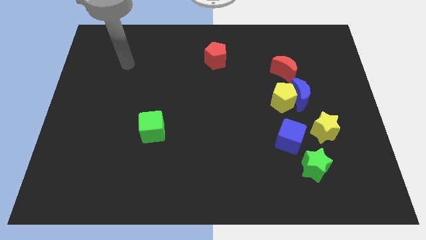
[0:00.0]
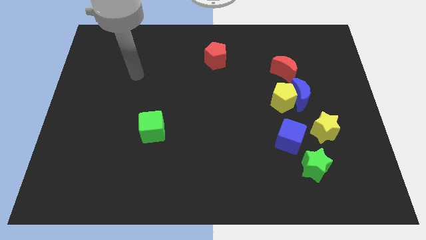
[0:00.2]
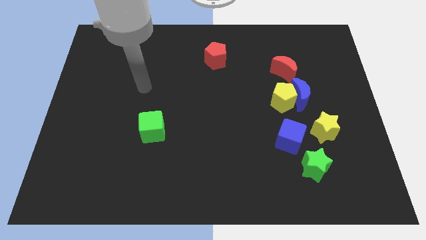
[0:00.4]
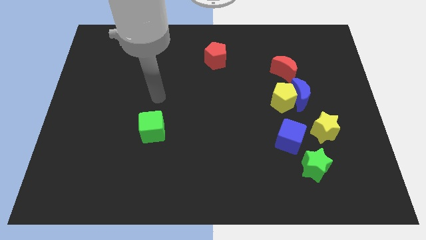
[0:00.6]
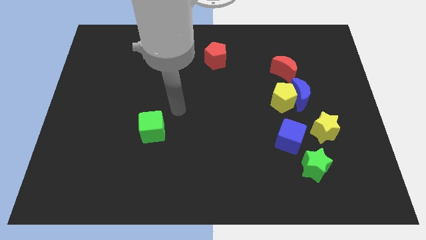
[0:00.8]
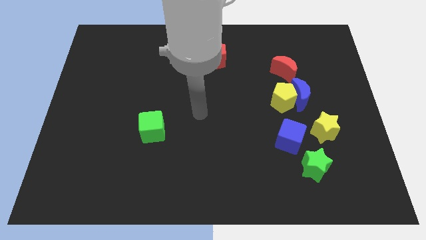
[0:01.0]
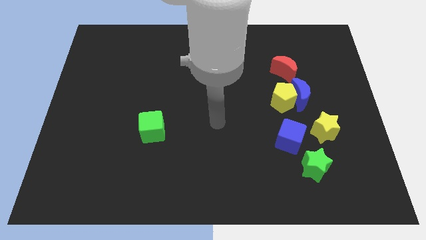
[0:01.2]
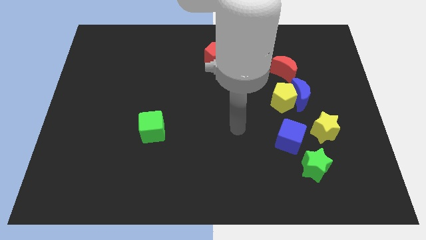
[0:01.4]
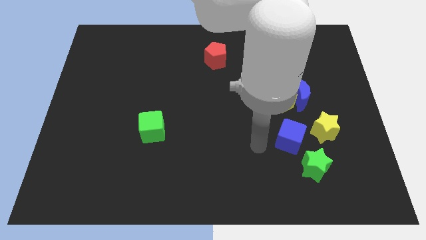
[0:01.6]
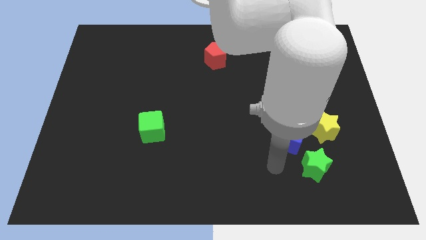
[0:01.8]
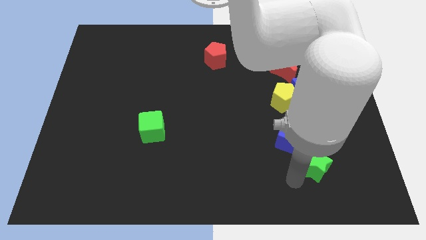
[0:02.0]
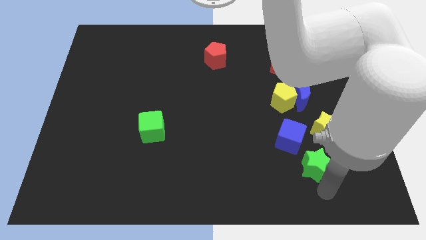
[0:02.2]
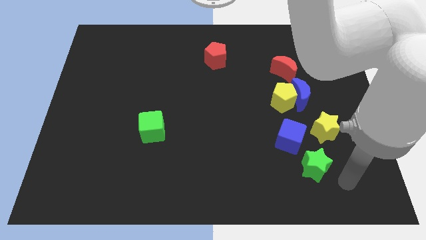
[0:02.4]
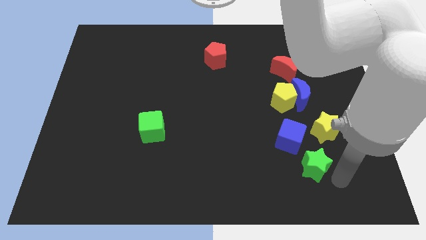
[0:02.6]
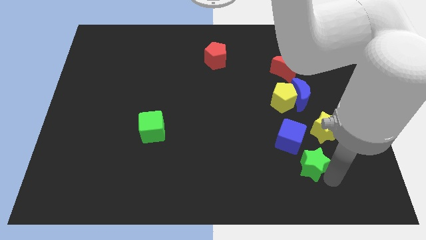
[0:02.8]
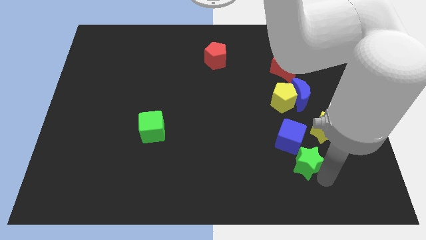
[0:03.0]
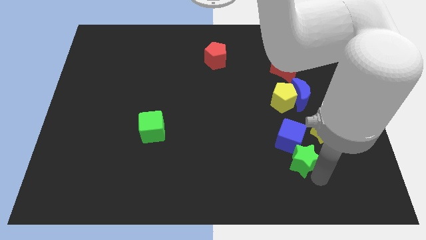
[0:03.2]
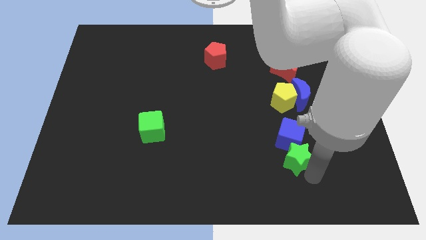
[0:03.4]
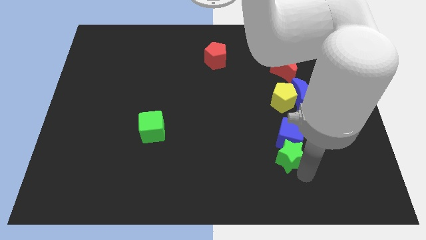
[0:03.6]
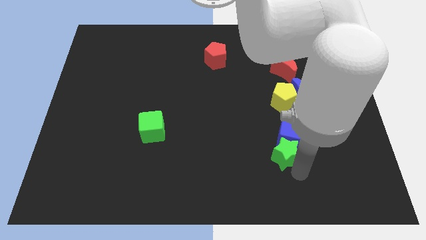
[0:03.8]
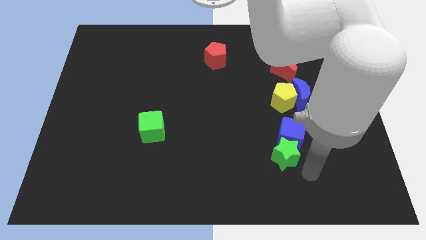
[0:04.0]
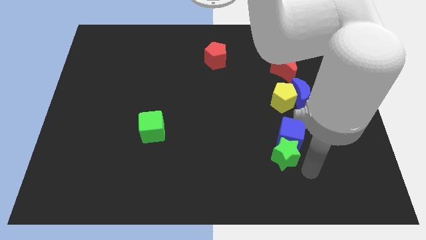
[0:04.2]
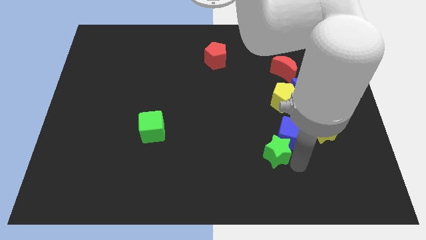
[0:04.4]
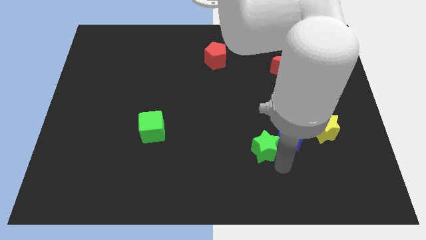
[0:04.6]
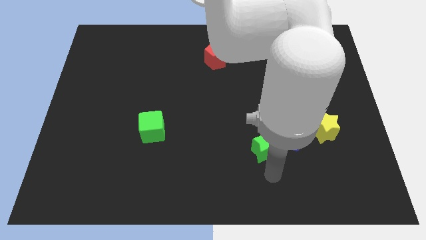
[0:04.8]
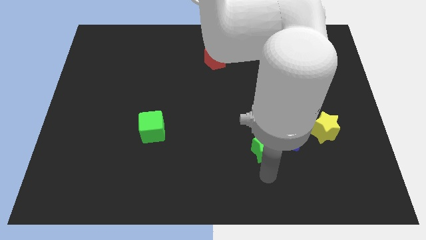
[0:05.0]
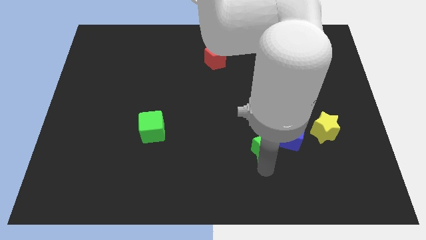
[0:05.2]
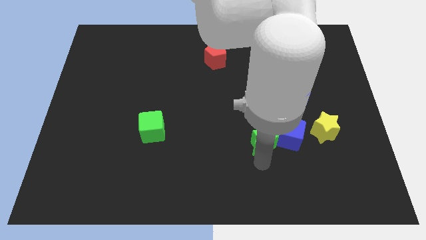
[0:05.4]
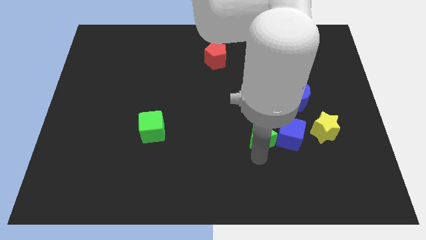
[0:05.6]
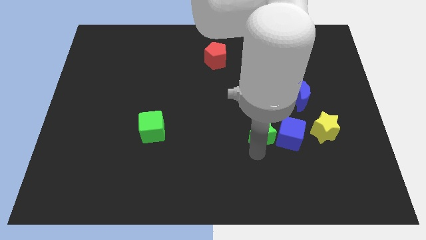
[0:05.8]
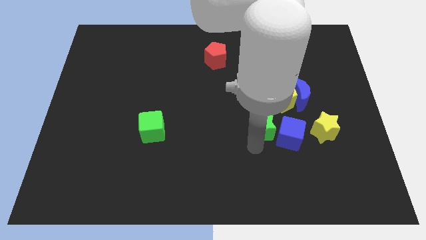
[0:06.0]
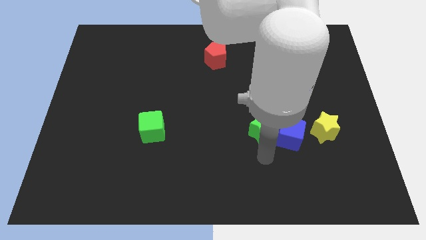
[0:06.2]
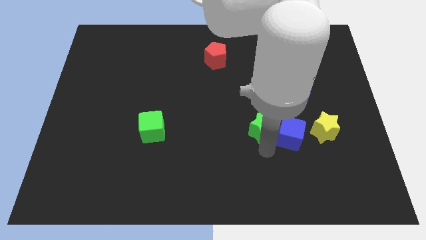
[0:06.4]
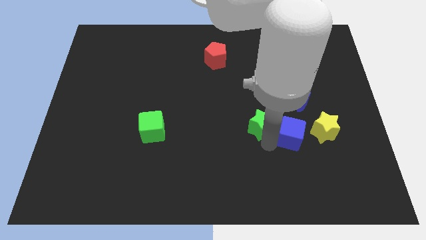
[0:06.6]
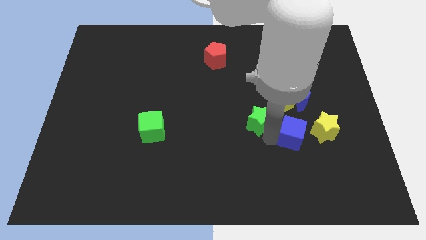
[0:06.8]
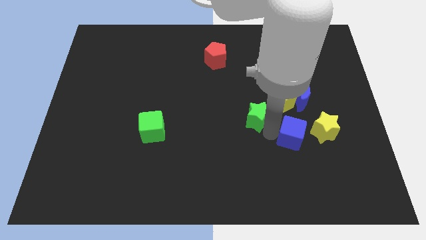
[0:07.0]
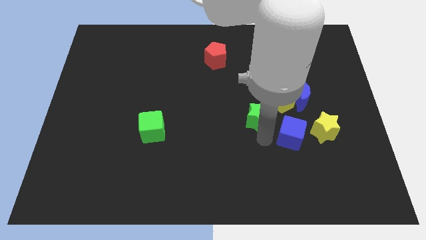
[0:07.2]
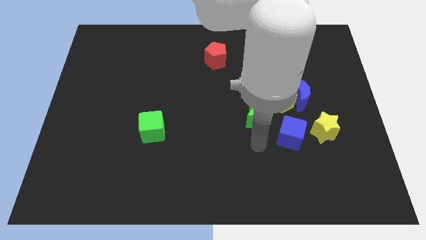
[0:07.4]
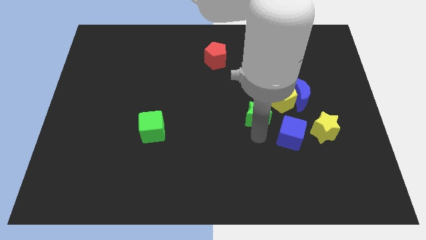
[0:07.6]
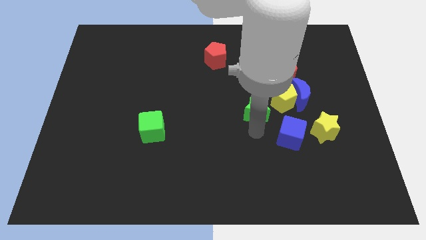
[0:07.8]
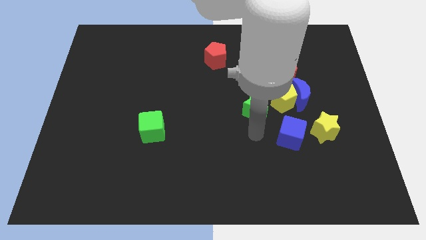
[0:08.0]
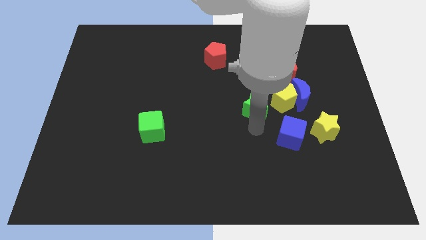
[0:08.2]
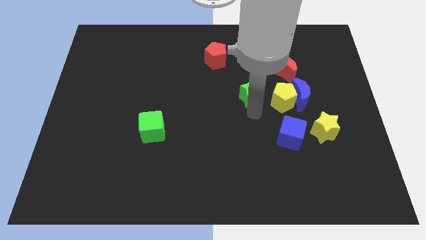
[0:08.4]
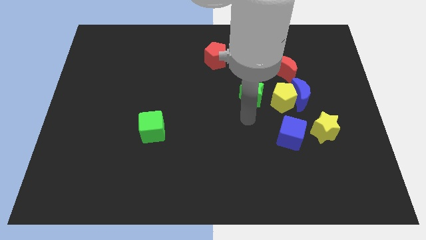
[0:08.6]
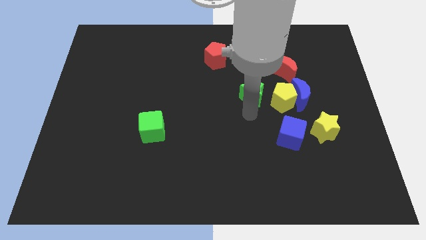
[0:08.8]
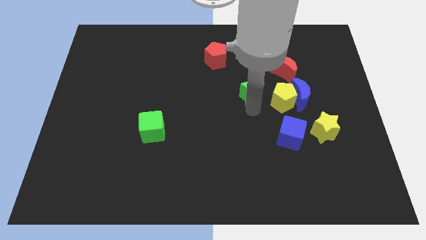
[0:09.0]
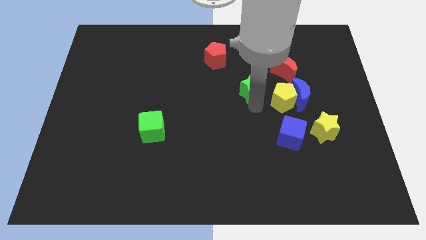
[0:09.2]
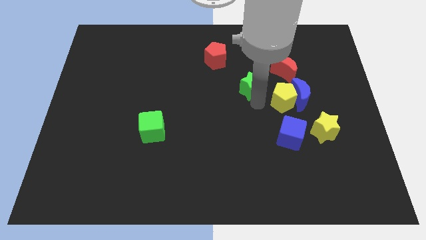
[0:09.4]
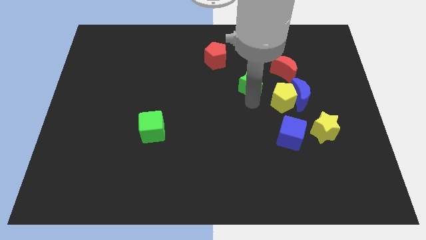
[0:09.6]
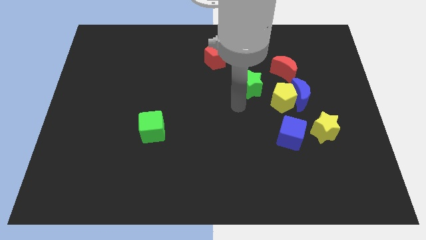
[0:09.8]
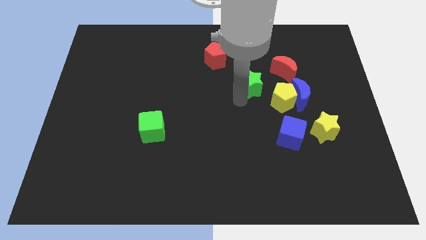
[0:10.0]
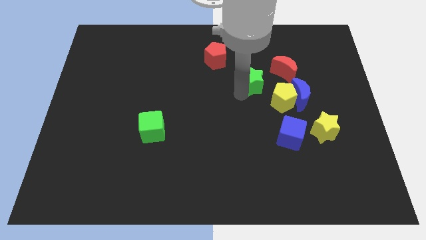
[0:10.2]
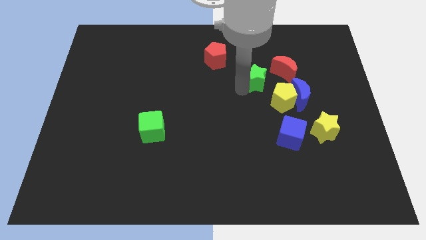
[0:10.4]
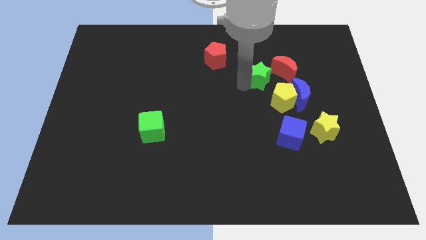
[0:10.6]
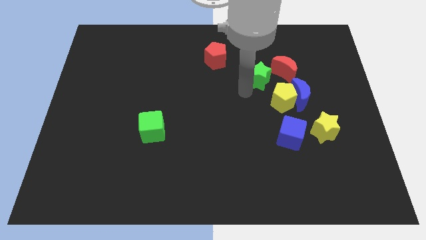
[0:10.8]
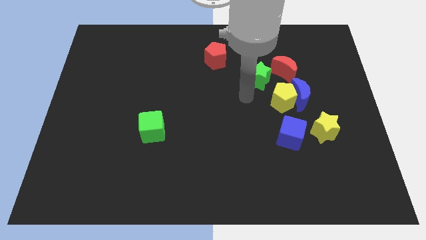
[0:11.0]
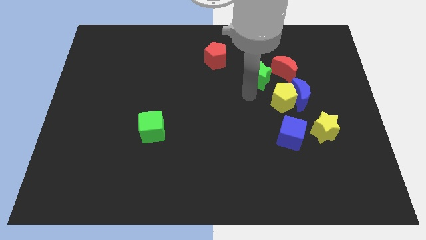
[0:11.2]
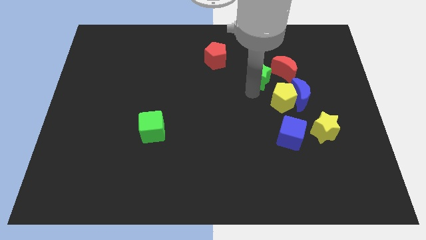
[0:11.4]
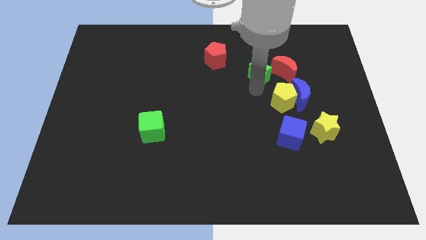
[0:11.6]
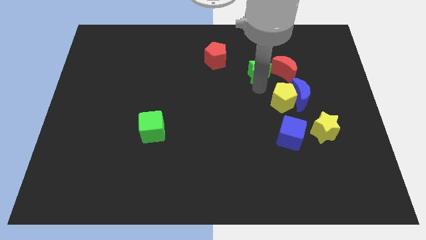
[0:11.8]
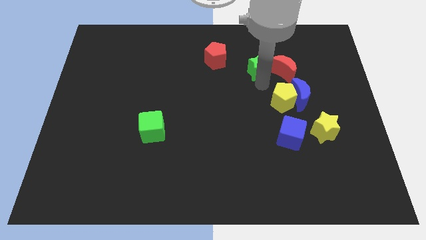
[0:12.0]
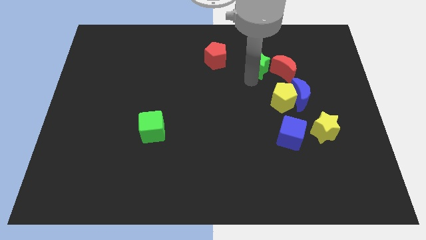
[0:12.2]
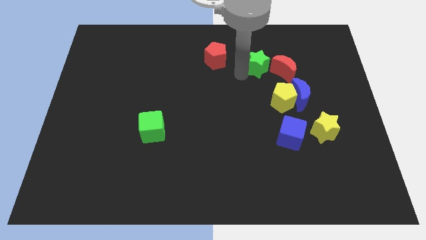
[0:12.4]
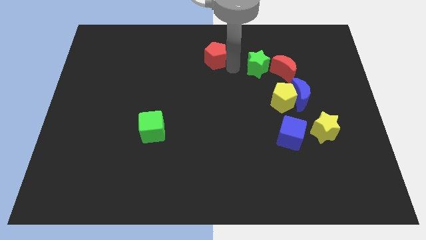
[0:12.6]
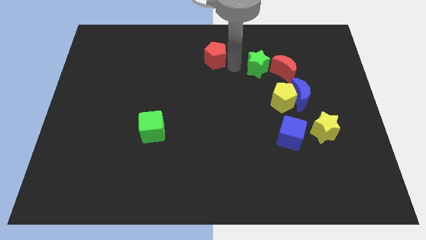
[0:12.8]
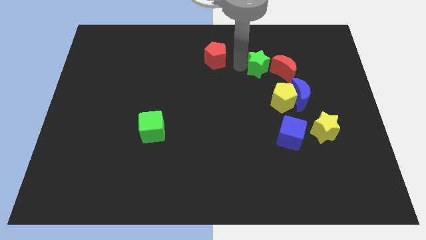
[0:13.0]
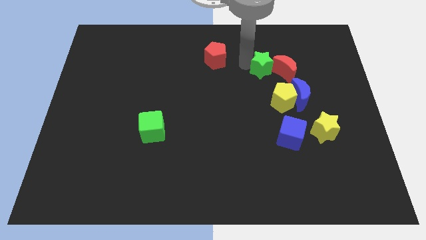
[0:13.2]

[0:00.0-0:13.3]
move the green star above the yellow pentagon

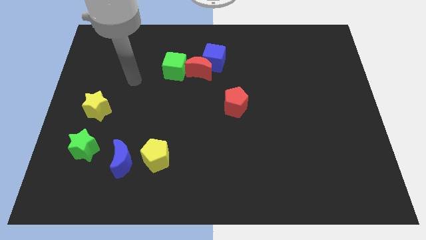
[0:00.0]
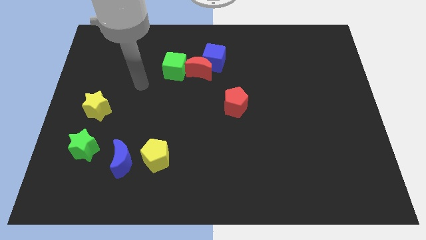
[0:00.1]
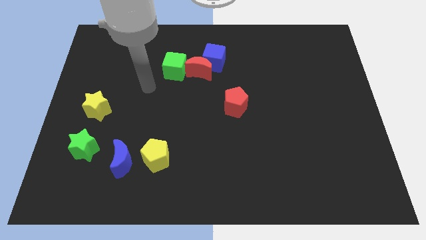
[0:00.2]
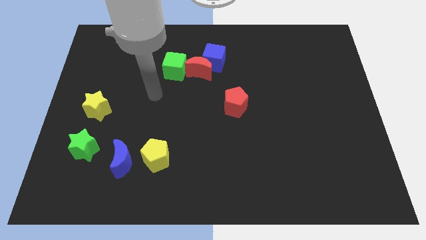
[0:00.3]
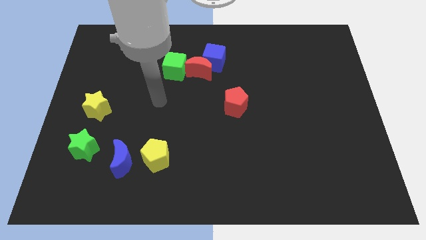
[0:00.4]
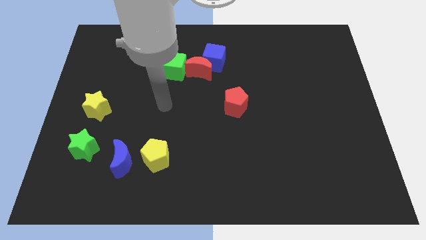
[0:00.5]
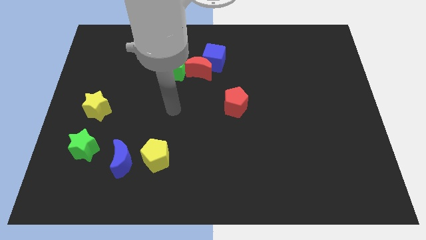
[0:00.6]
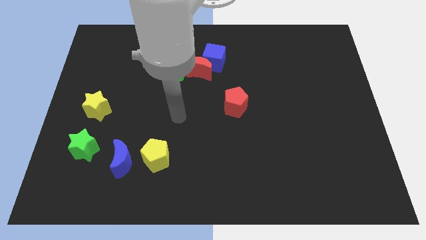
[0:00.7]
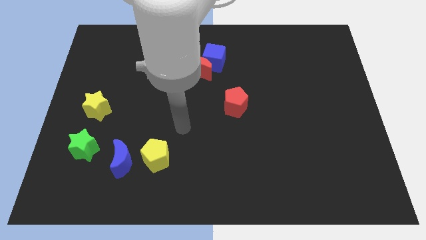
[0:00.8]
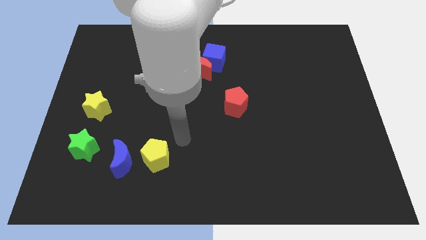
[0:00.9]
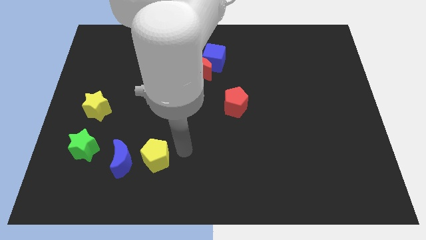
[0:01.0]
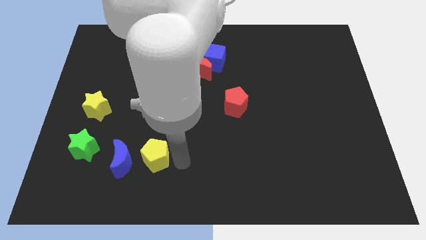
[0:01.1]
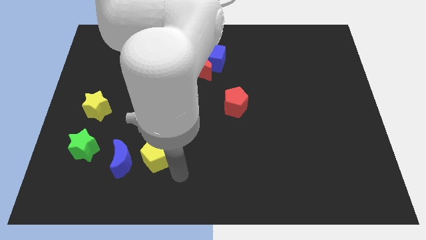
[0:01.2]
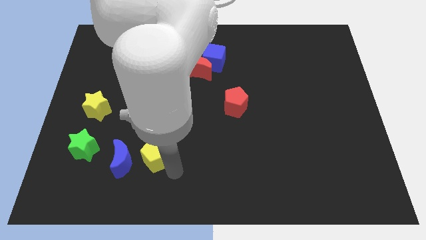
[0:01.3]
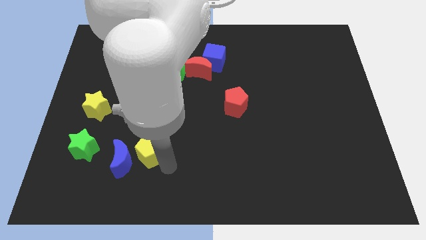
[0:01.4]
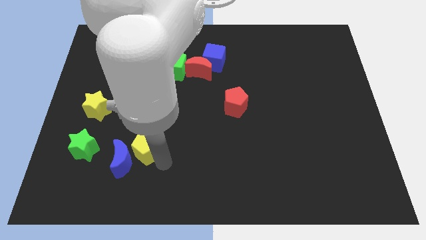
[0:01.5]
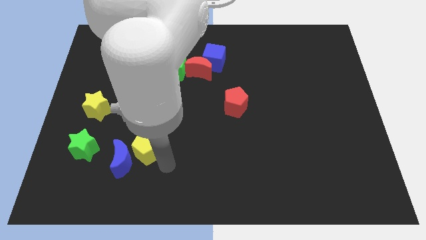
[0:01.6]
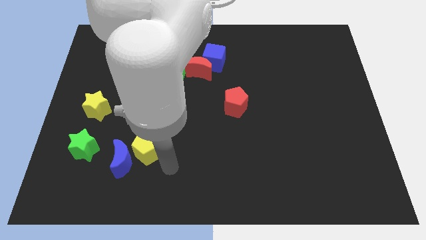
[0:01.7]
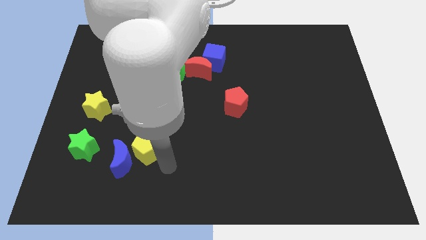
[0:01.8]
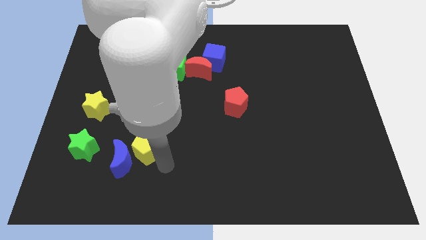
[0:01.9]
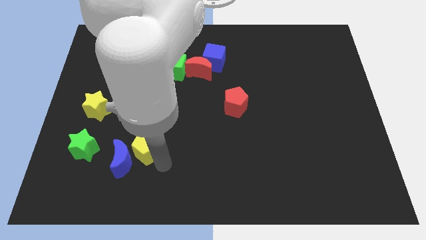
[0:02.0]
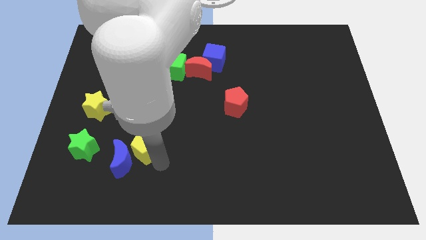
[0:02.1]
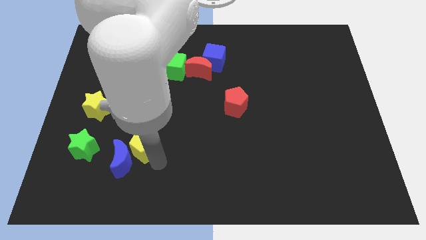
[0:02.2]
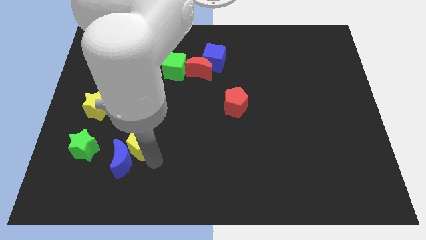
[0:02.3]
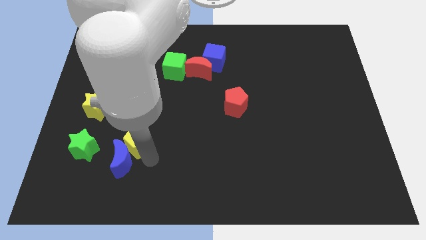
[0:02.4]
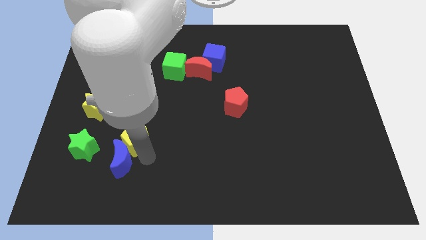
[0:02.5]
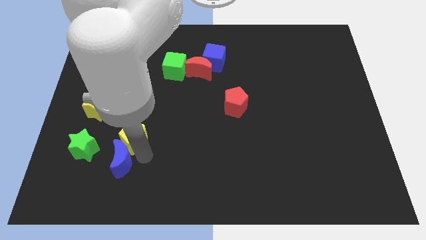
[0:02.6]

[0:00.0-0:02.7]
put the yellow pentagon to the bottom right side of the yellow star
